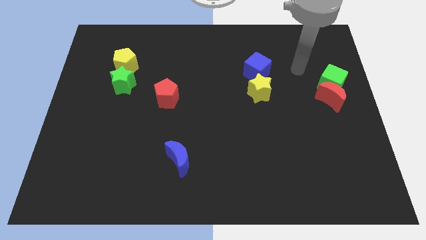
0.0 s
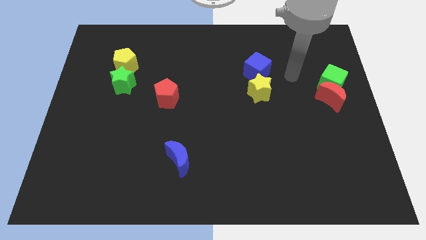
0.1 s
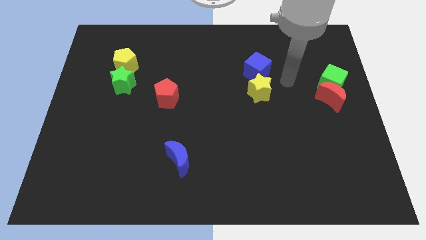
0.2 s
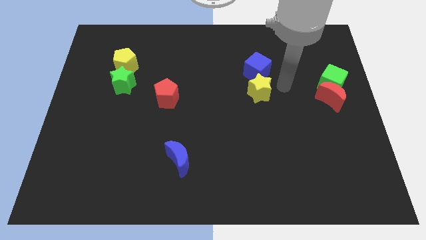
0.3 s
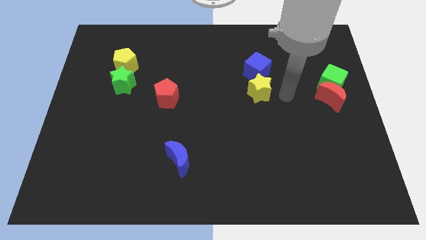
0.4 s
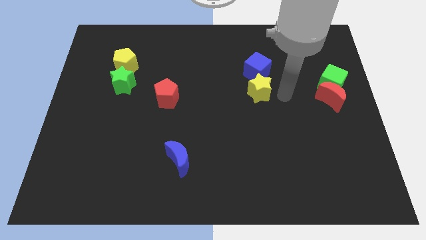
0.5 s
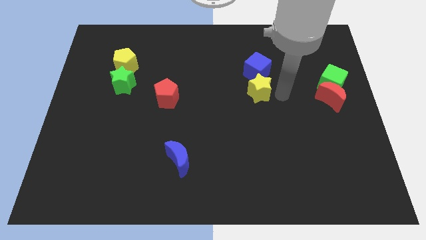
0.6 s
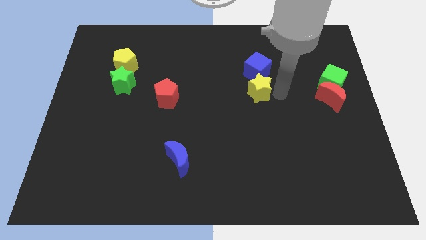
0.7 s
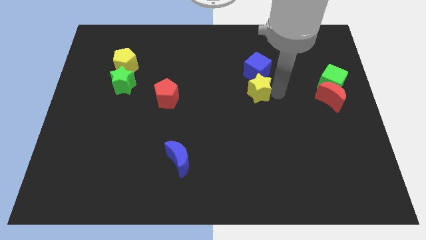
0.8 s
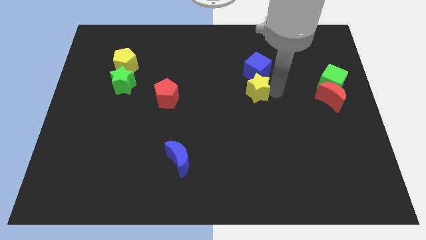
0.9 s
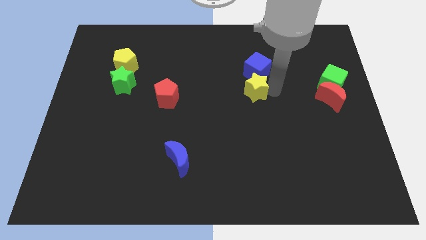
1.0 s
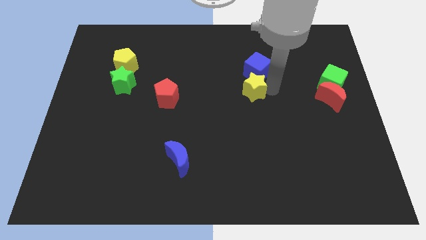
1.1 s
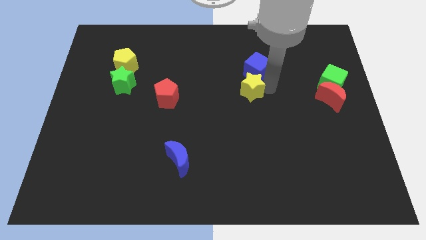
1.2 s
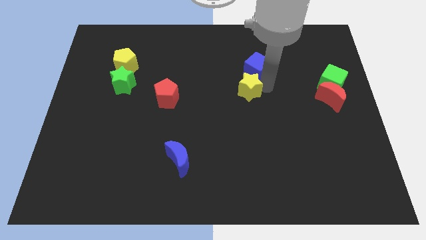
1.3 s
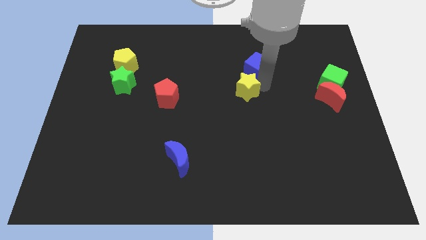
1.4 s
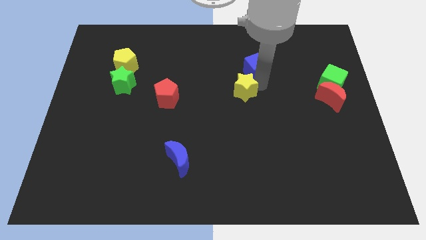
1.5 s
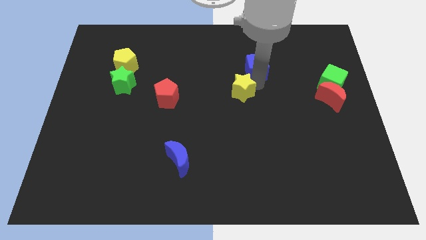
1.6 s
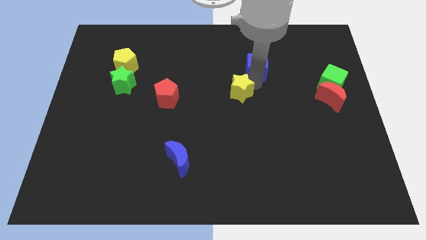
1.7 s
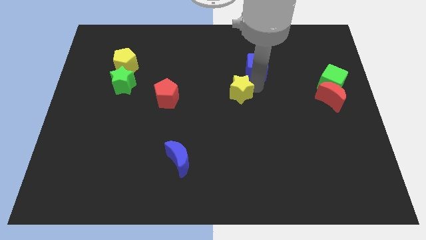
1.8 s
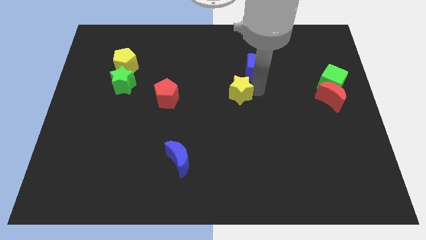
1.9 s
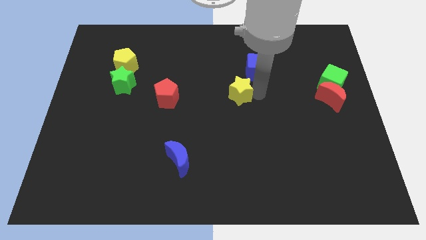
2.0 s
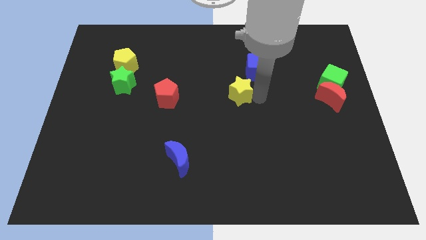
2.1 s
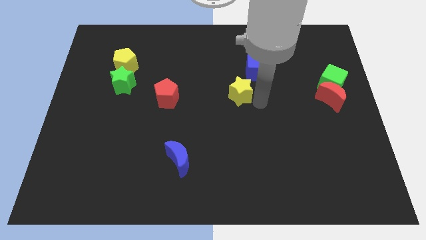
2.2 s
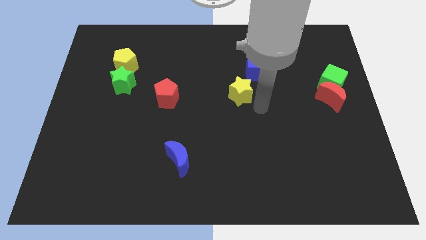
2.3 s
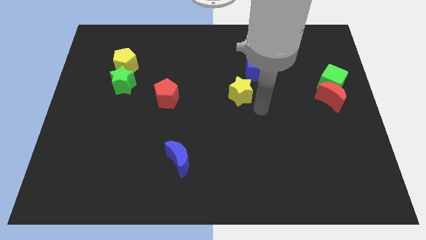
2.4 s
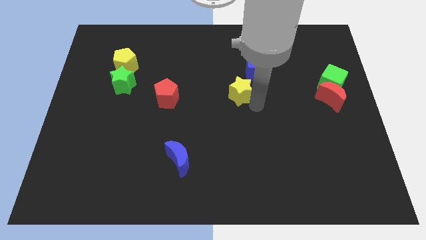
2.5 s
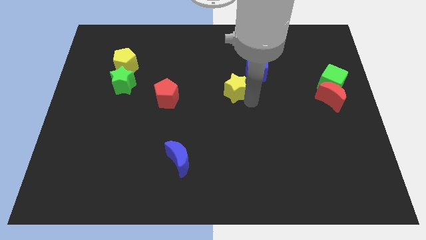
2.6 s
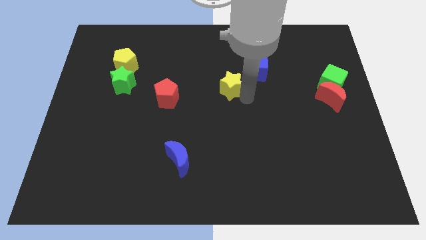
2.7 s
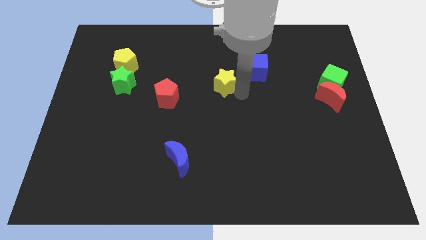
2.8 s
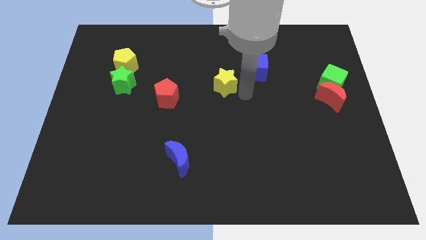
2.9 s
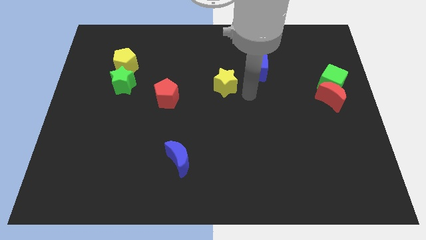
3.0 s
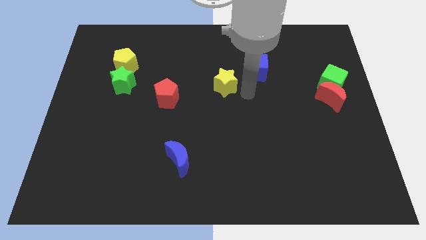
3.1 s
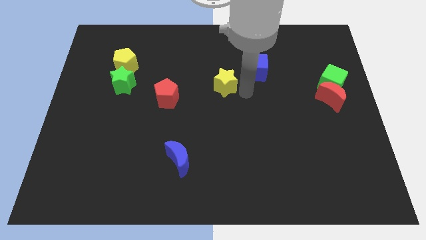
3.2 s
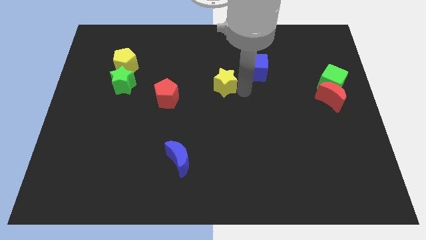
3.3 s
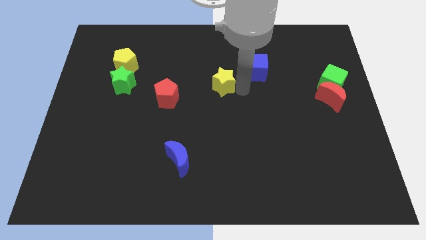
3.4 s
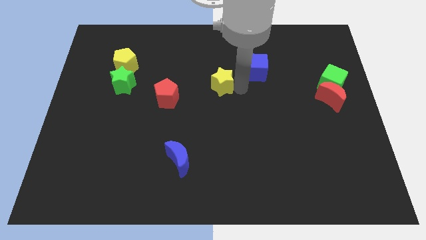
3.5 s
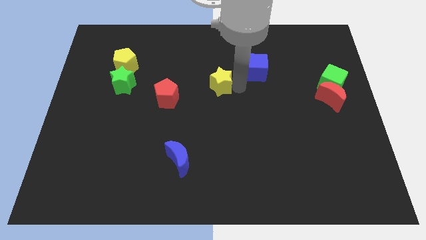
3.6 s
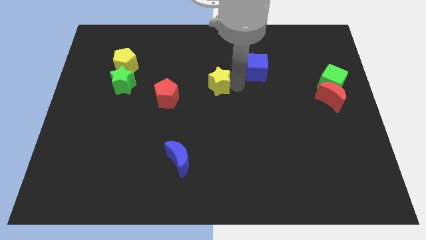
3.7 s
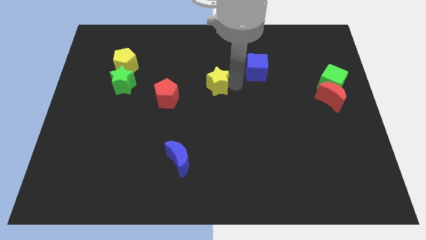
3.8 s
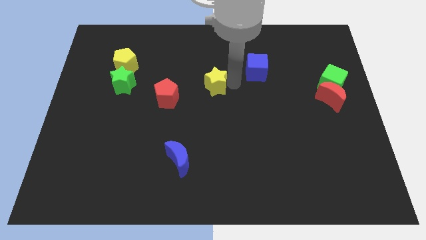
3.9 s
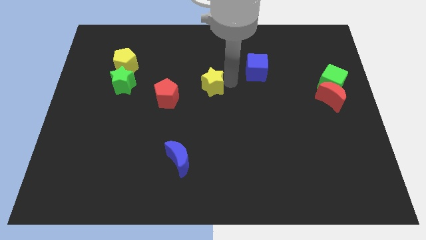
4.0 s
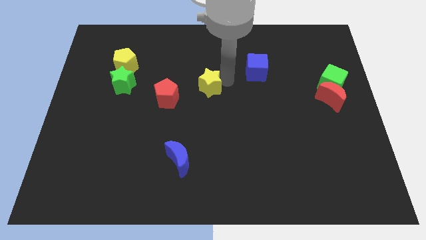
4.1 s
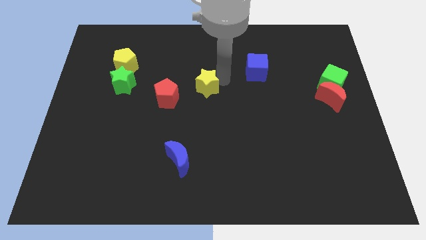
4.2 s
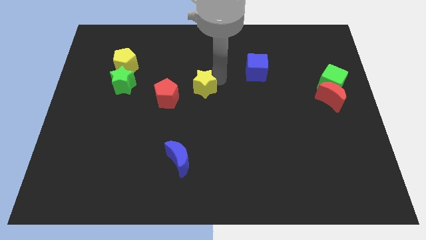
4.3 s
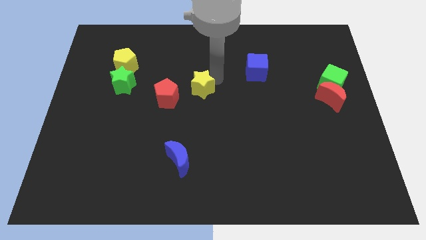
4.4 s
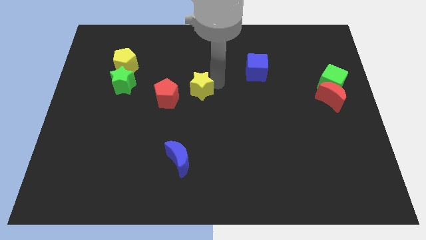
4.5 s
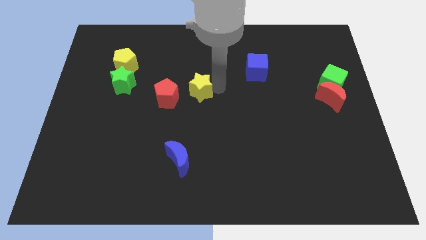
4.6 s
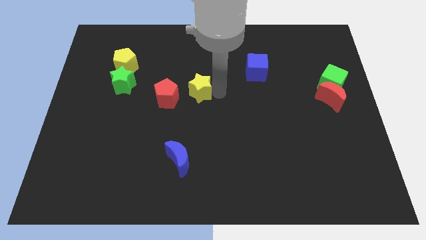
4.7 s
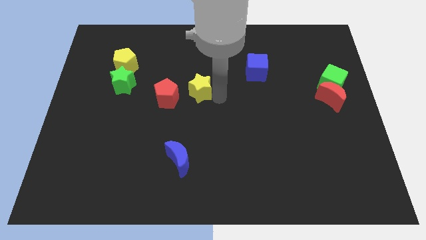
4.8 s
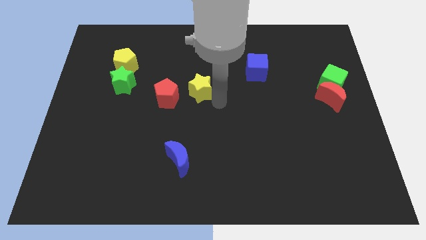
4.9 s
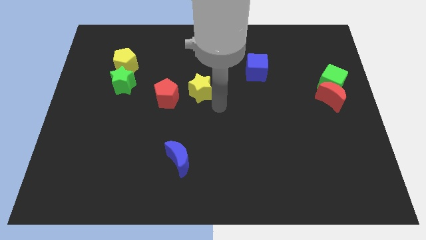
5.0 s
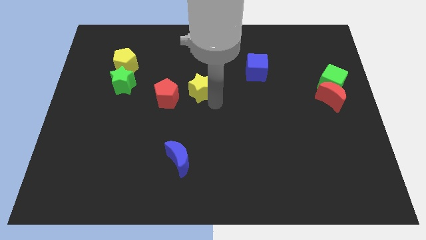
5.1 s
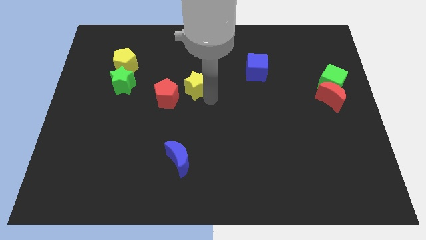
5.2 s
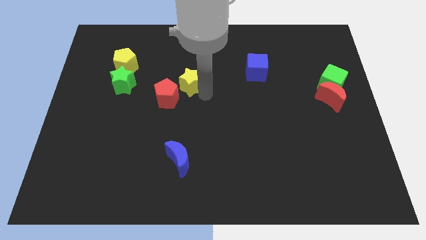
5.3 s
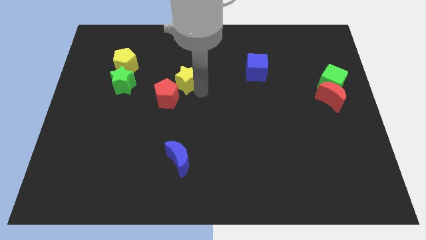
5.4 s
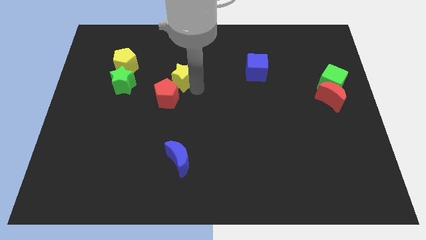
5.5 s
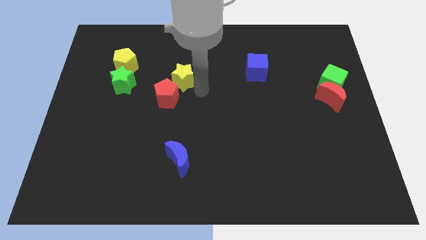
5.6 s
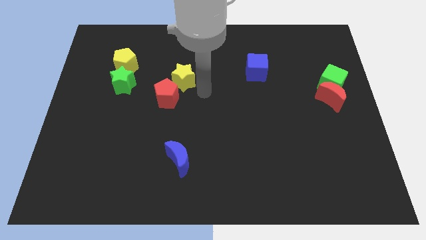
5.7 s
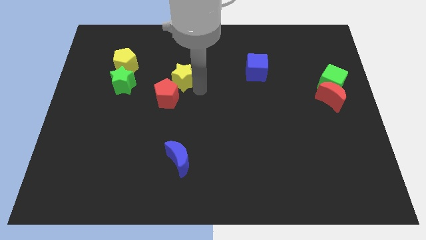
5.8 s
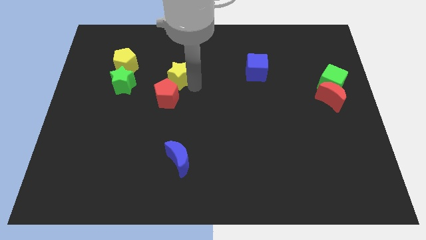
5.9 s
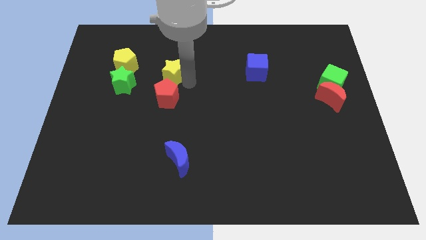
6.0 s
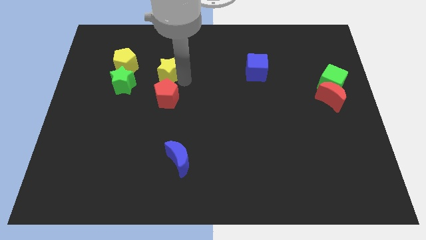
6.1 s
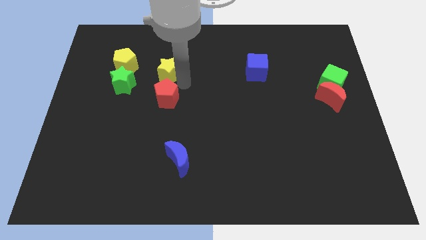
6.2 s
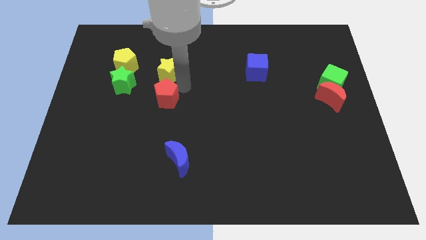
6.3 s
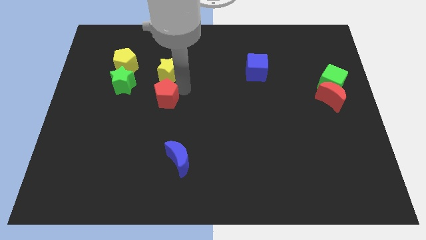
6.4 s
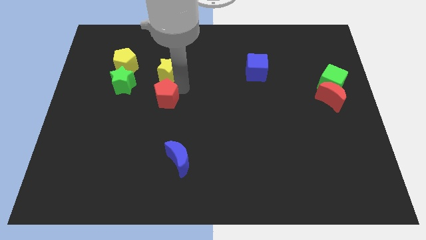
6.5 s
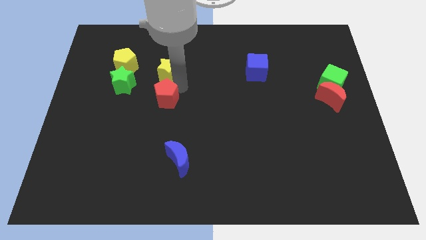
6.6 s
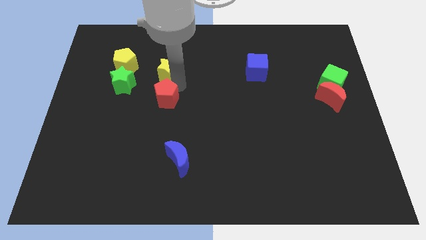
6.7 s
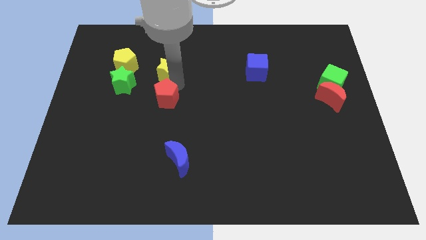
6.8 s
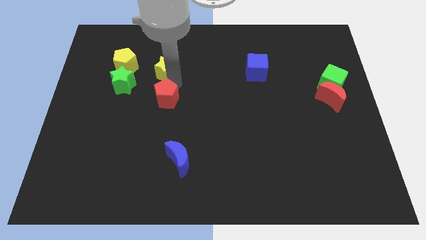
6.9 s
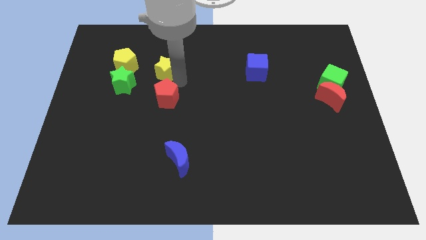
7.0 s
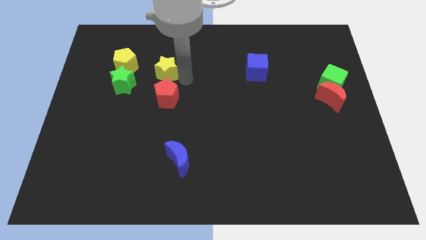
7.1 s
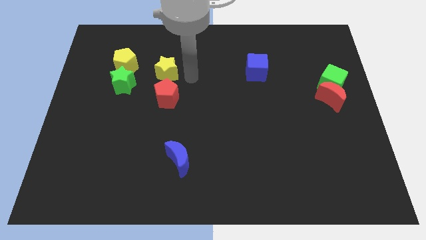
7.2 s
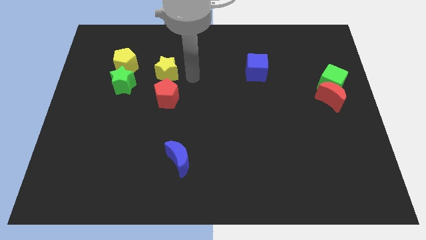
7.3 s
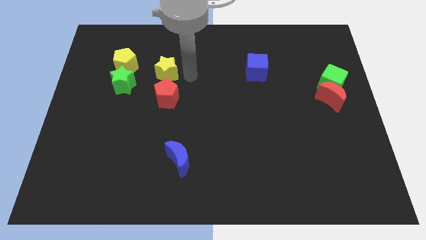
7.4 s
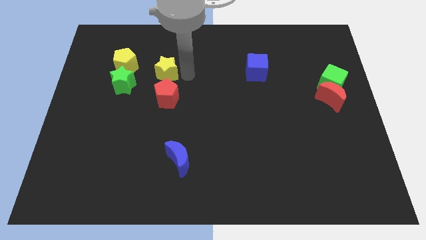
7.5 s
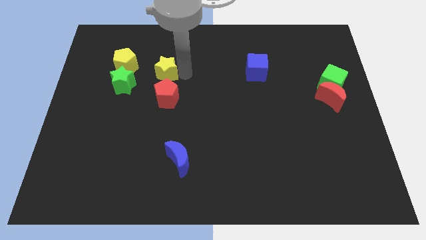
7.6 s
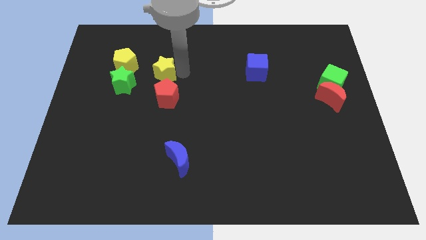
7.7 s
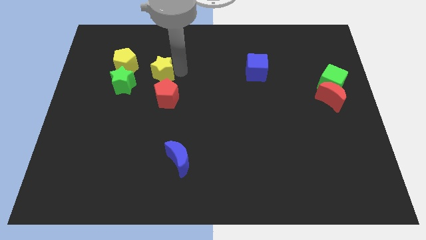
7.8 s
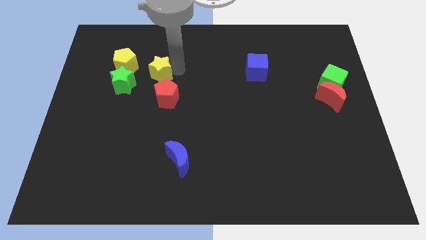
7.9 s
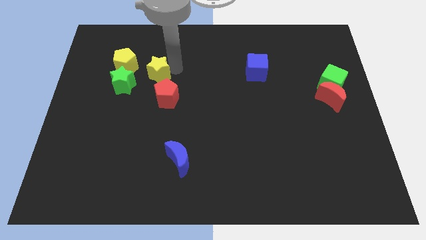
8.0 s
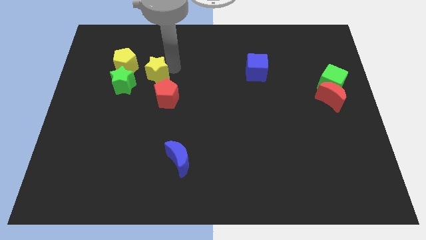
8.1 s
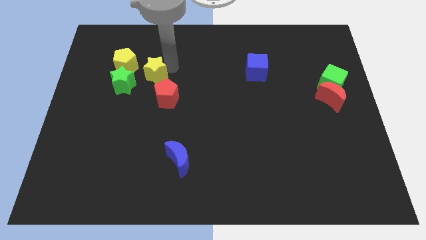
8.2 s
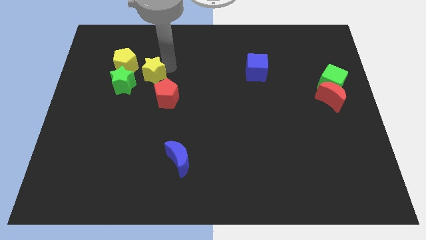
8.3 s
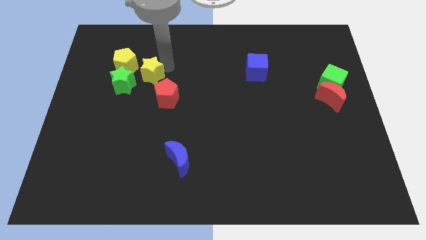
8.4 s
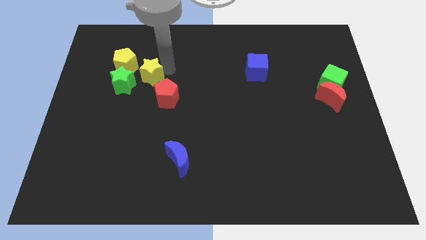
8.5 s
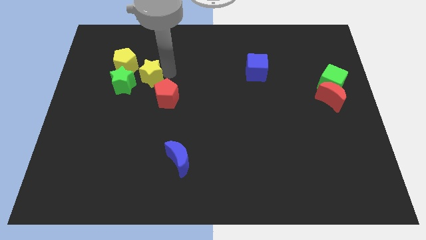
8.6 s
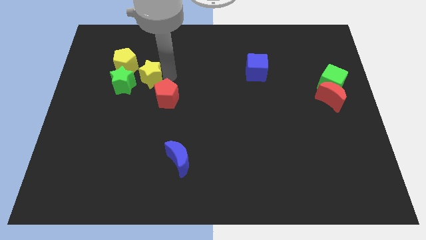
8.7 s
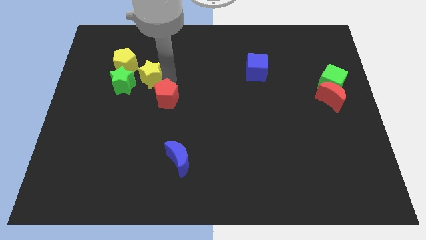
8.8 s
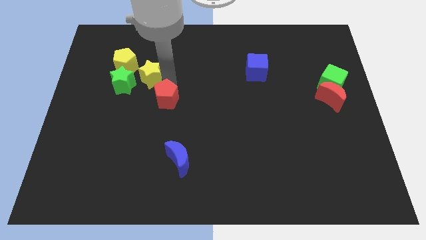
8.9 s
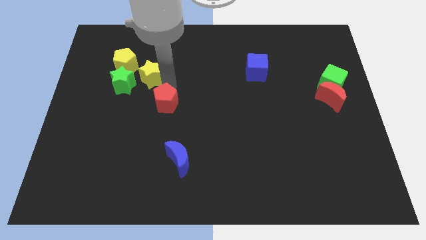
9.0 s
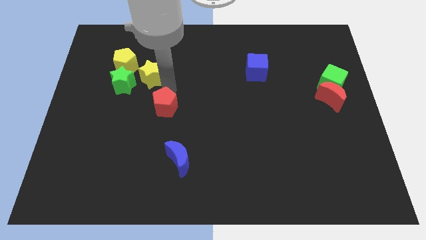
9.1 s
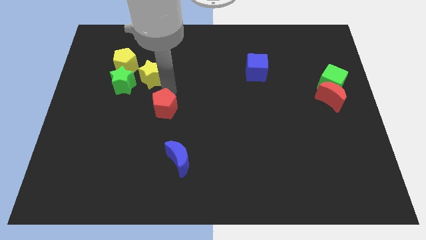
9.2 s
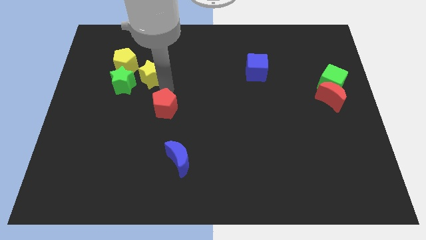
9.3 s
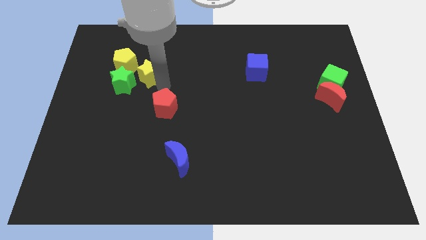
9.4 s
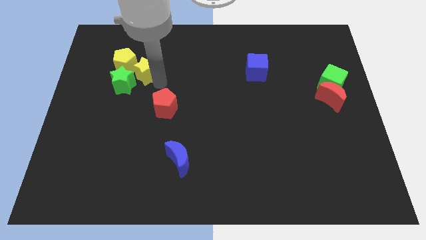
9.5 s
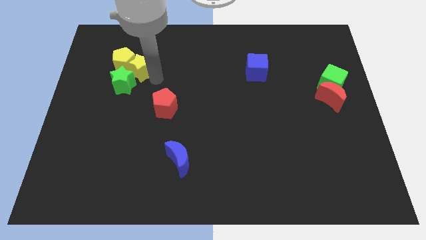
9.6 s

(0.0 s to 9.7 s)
slide the yellow star to the yellow pentagon
